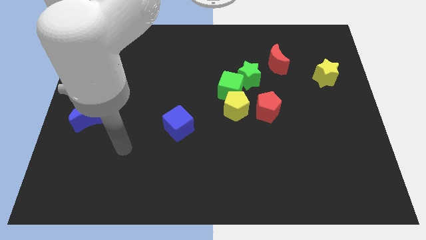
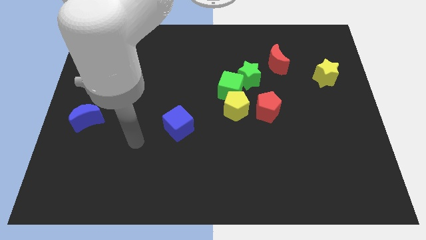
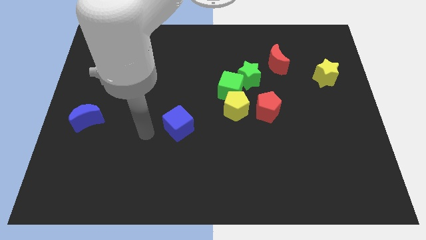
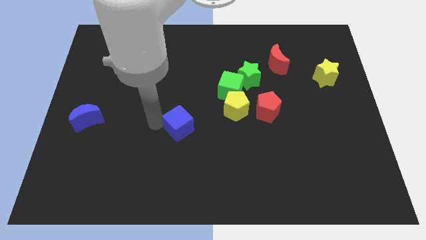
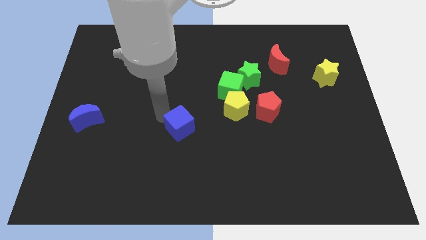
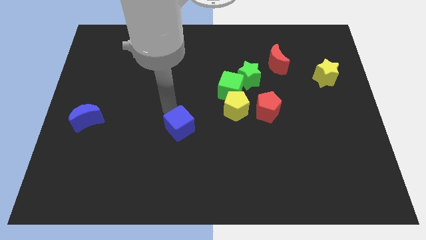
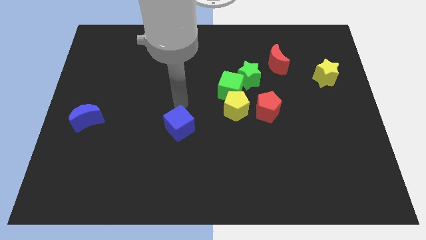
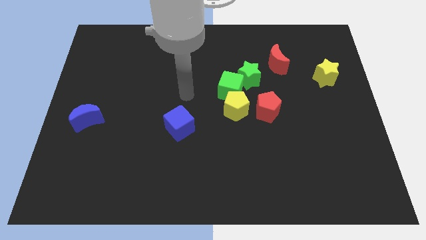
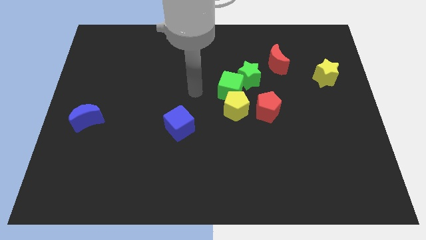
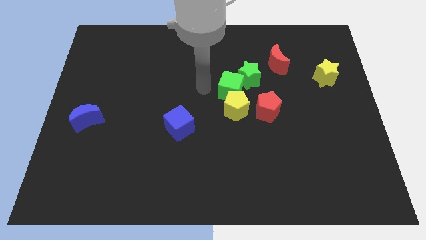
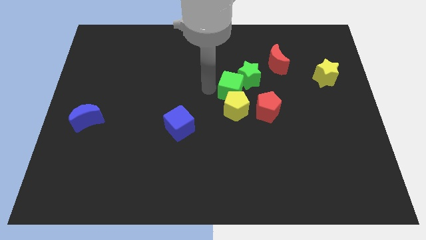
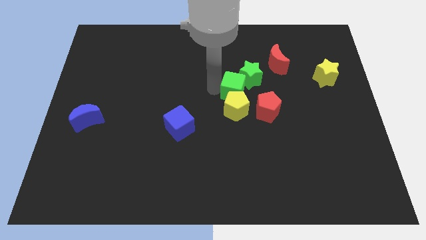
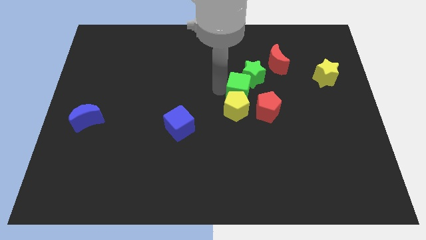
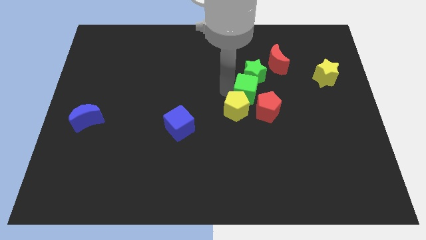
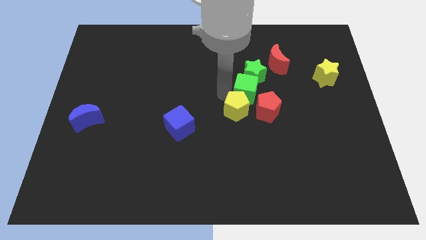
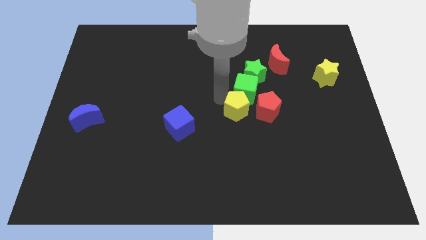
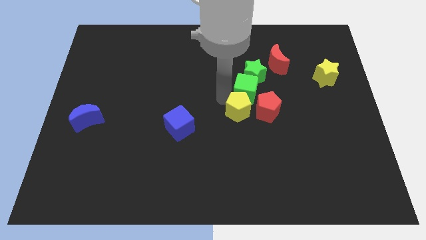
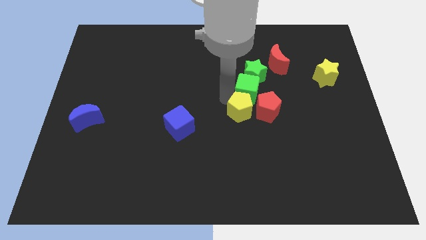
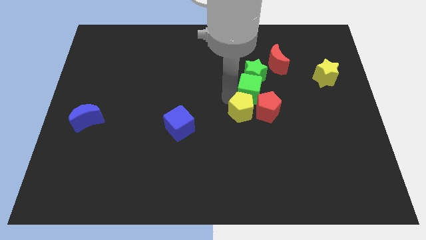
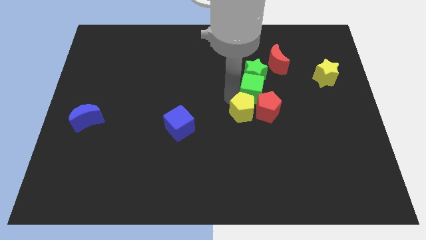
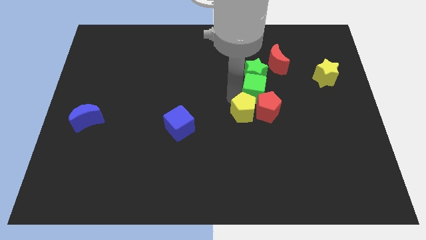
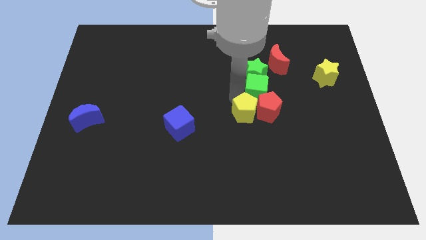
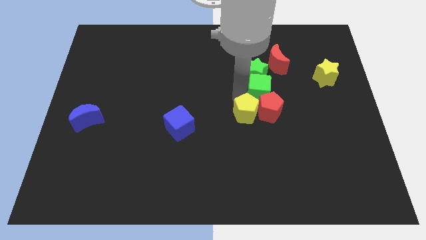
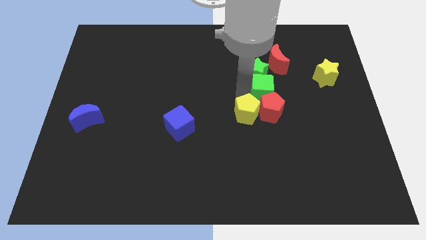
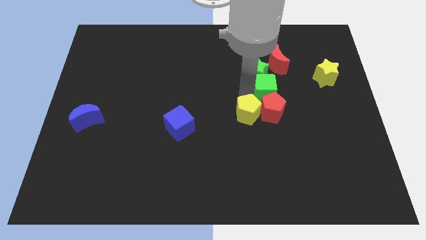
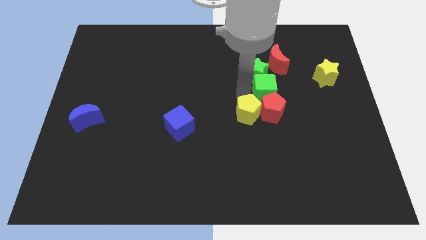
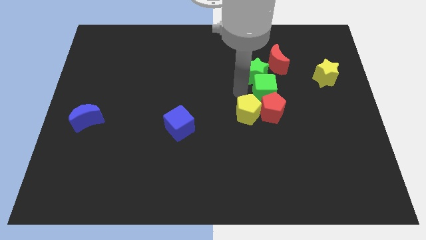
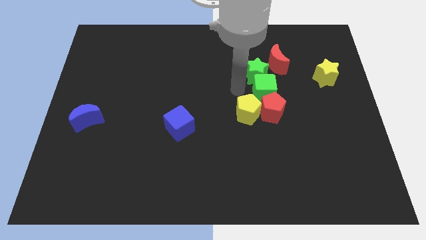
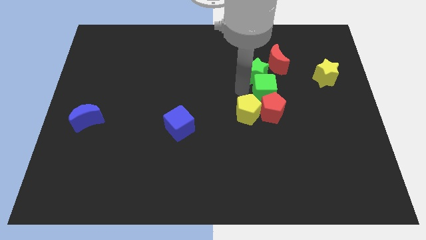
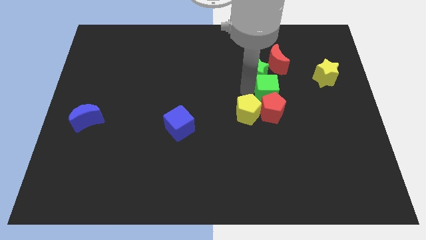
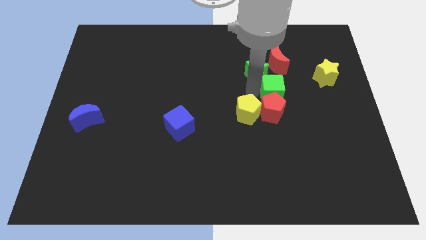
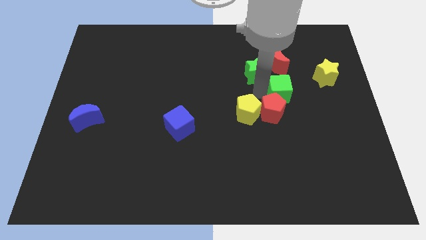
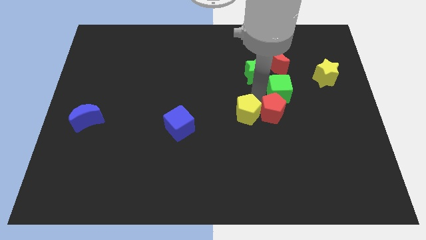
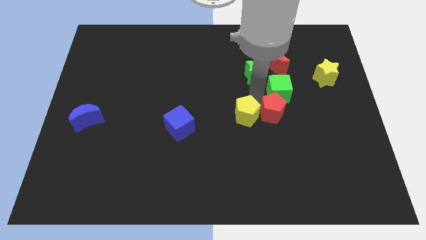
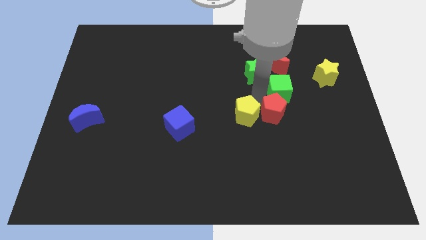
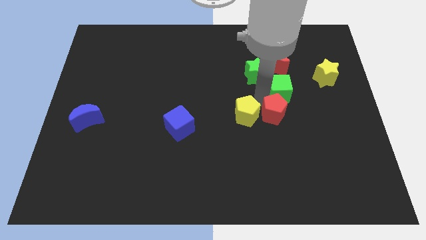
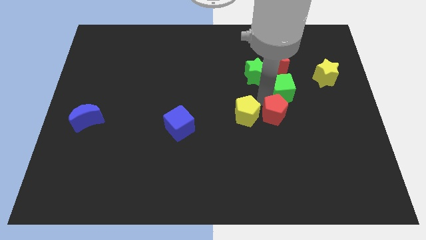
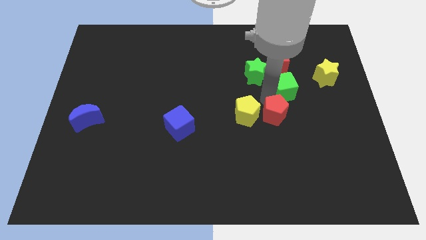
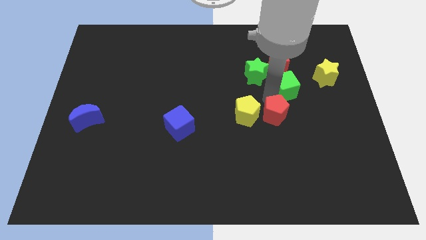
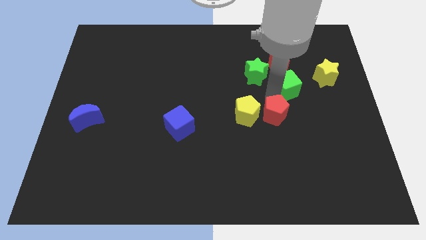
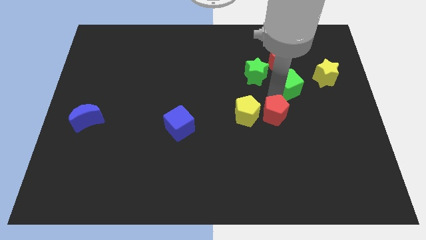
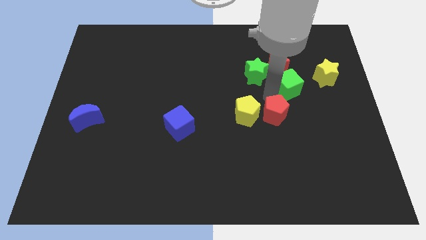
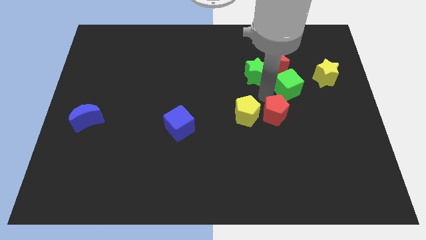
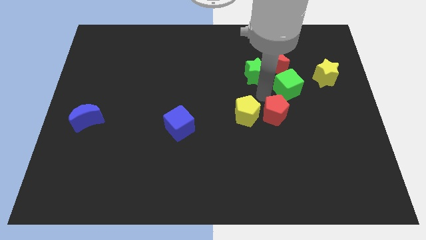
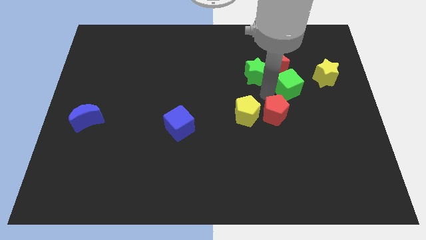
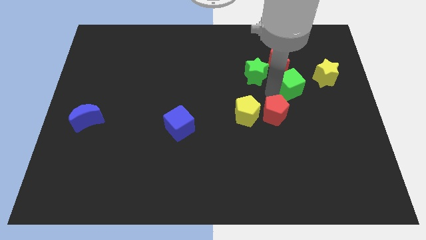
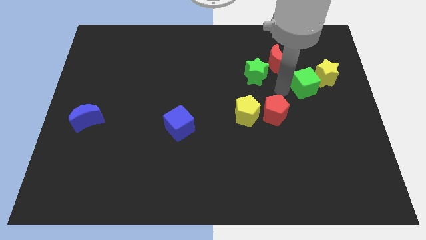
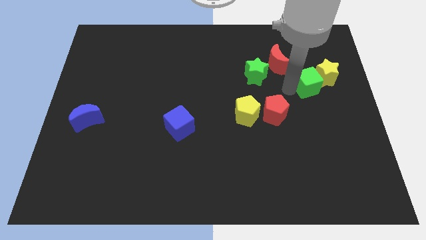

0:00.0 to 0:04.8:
slide the green cube to the yellow star

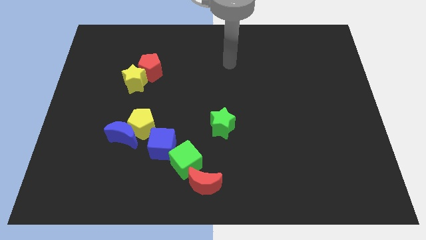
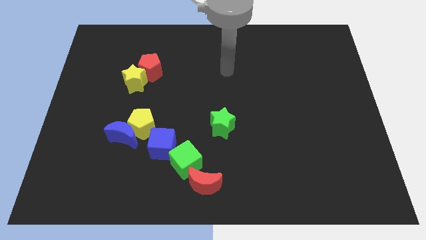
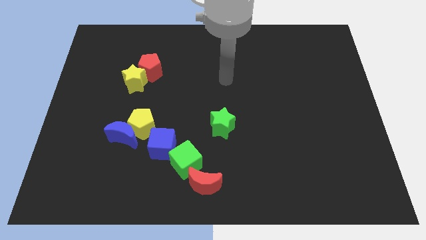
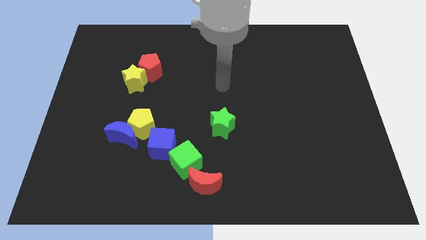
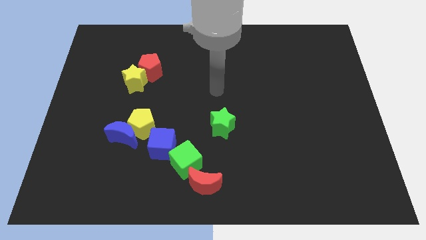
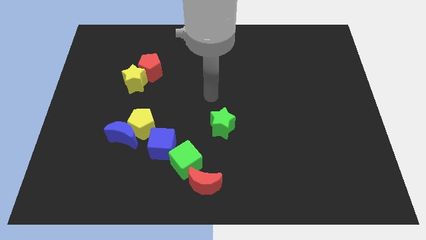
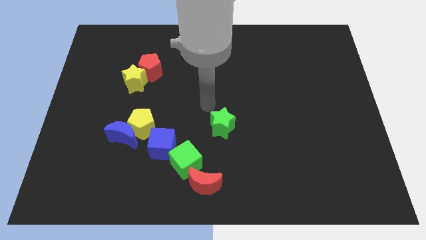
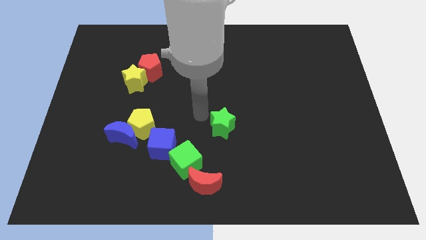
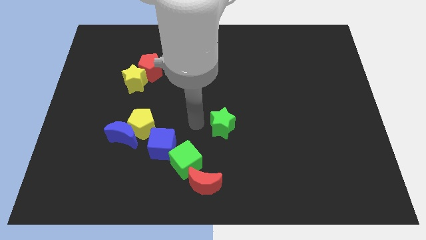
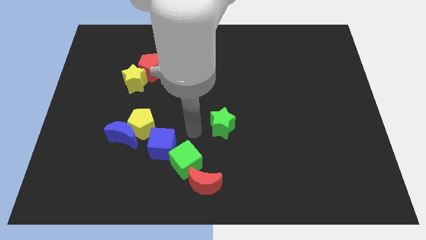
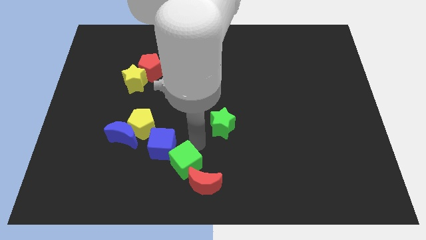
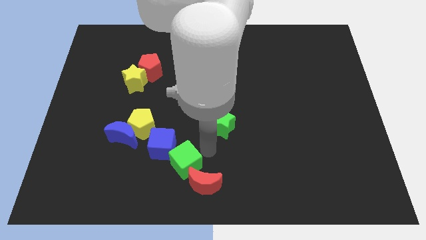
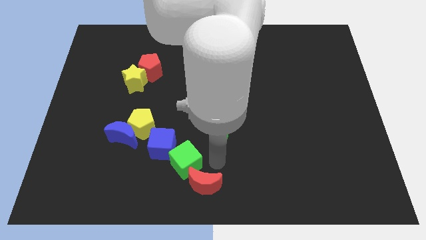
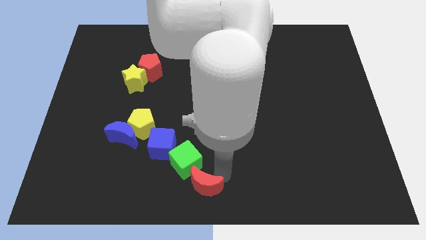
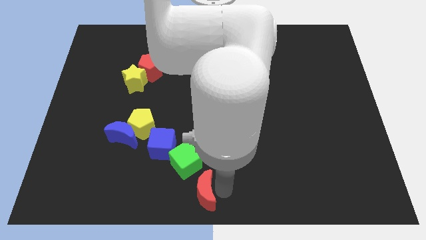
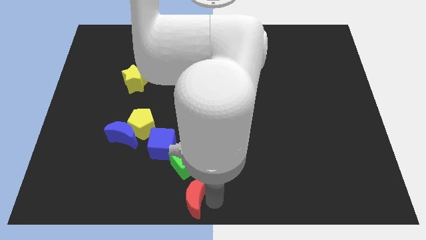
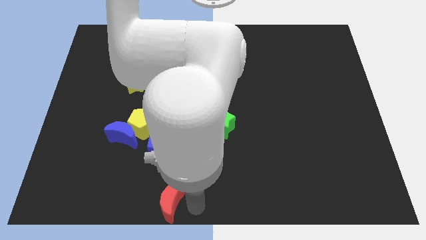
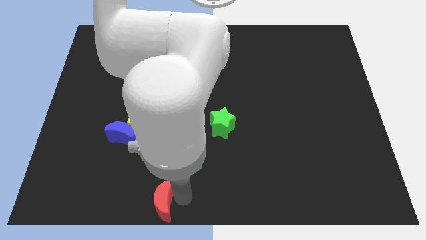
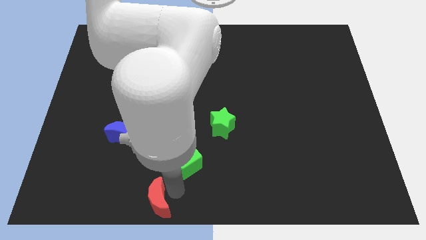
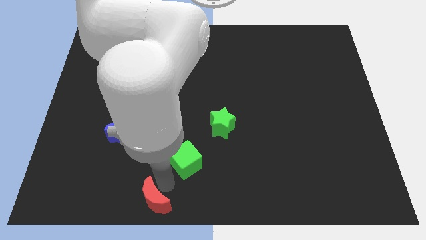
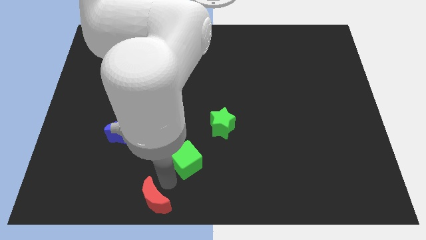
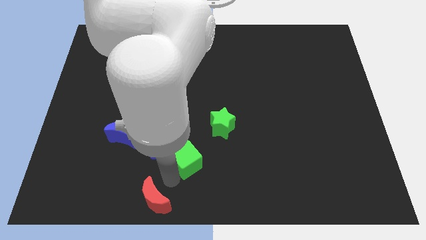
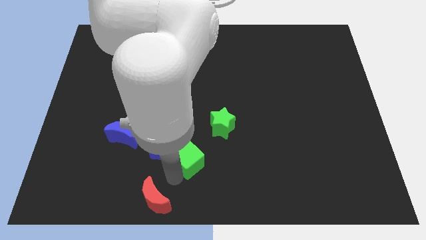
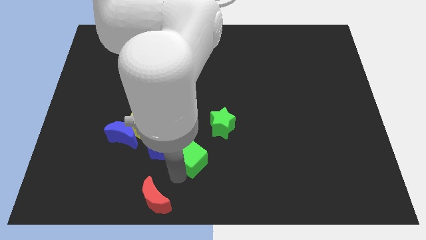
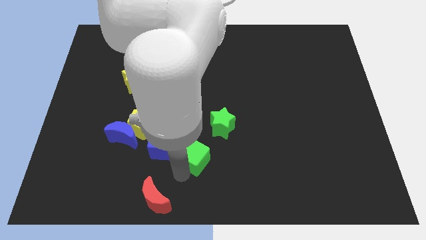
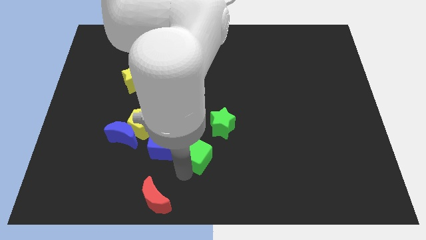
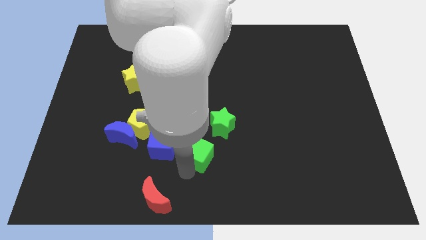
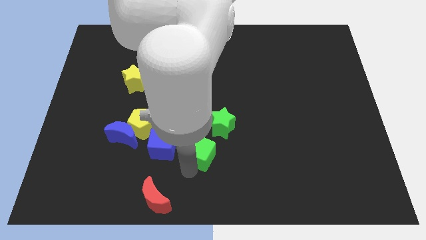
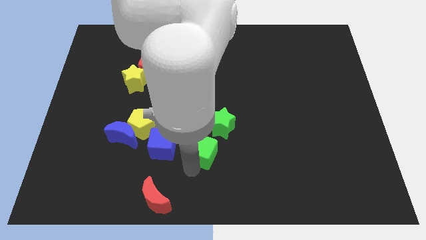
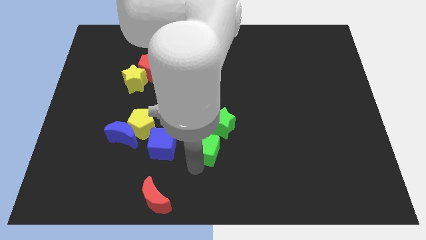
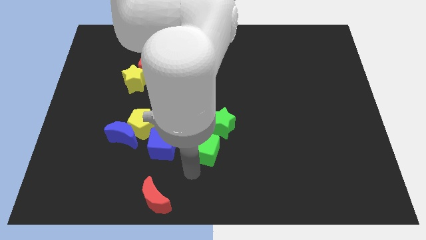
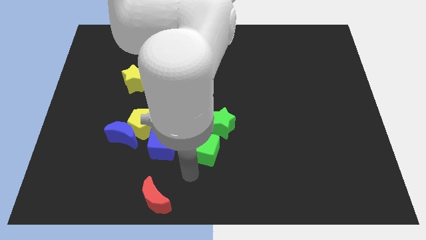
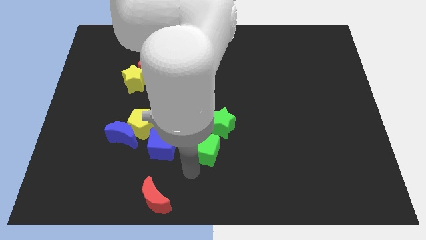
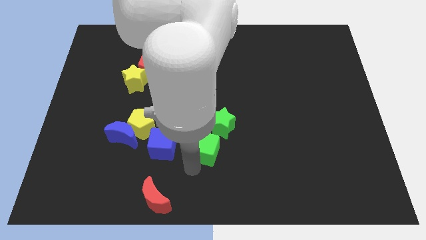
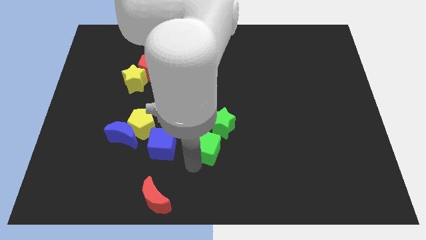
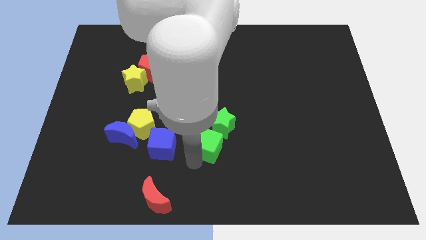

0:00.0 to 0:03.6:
put the green cube next to the green star
